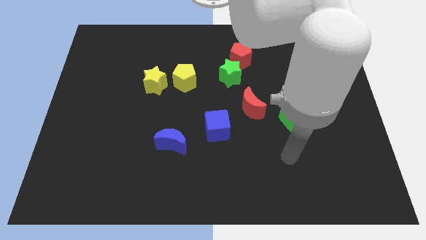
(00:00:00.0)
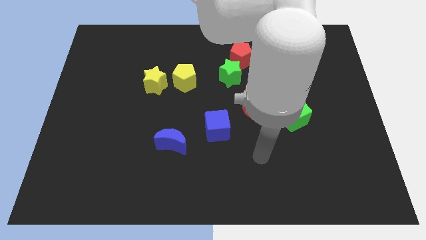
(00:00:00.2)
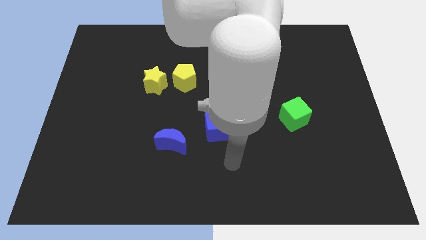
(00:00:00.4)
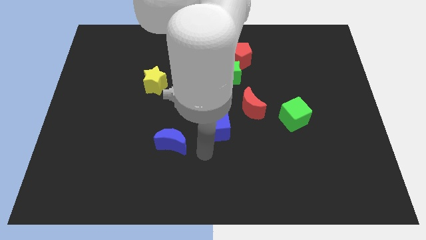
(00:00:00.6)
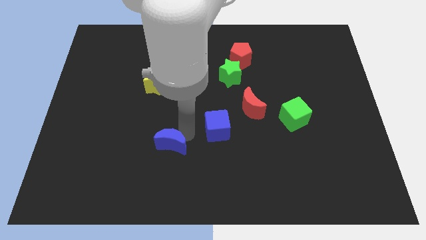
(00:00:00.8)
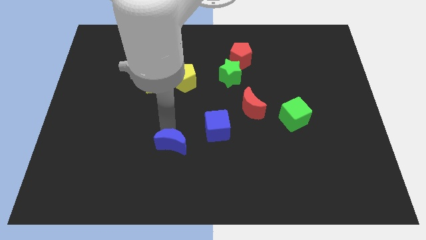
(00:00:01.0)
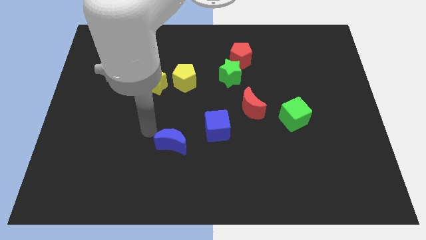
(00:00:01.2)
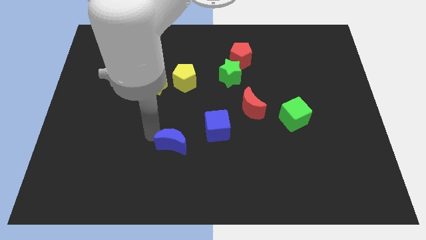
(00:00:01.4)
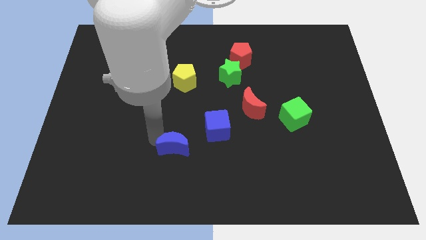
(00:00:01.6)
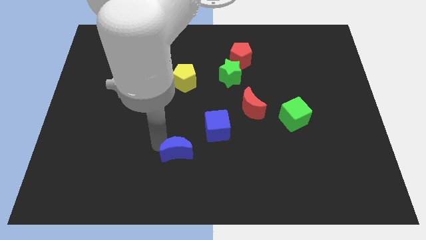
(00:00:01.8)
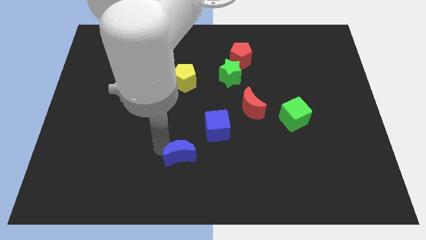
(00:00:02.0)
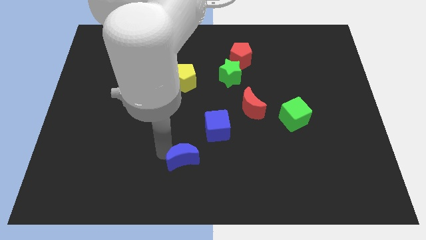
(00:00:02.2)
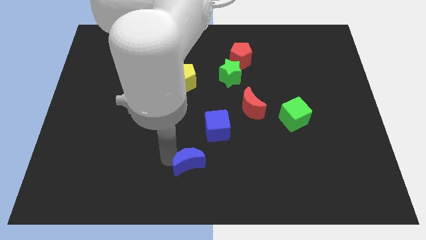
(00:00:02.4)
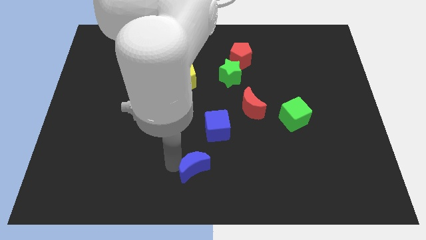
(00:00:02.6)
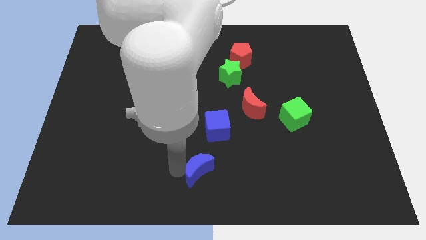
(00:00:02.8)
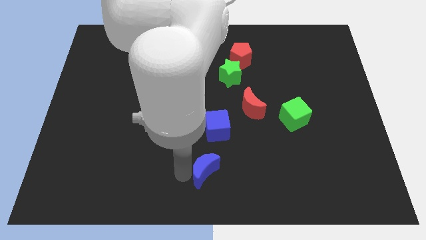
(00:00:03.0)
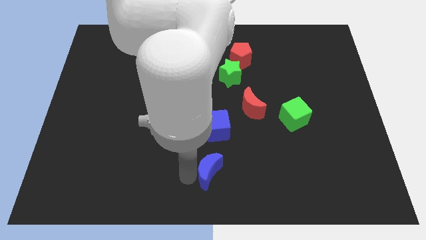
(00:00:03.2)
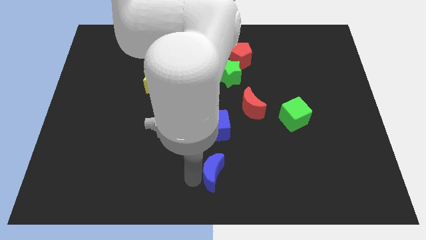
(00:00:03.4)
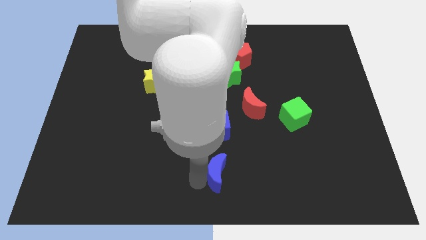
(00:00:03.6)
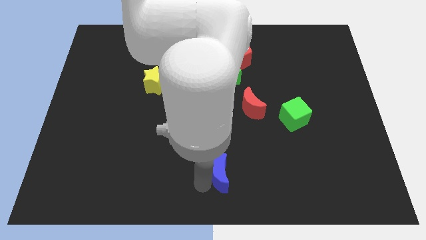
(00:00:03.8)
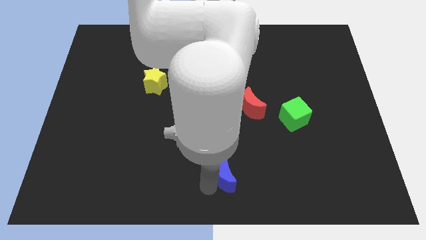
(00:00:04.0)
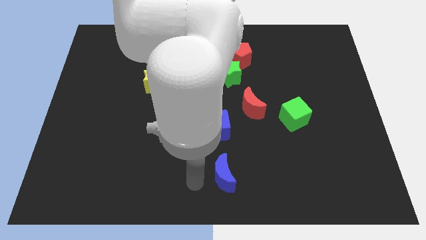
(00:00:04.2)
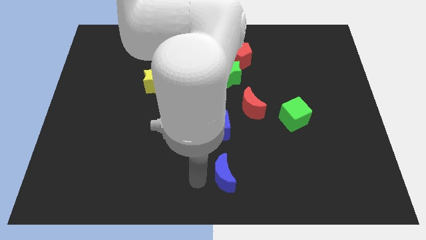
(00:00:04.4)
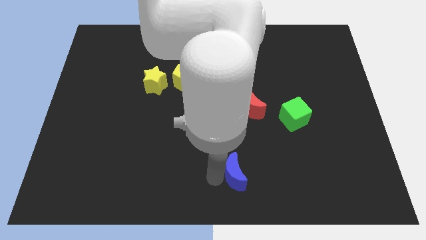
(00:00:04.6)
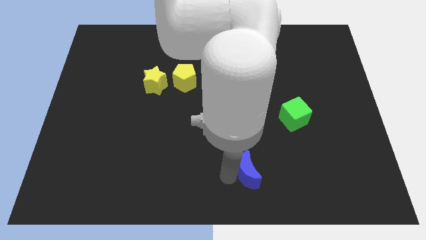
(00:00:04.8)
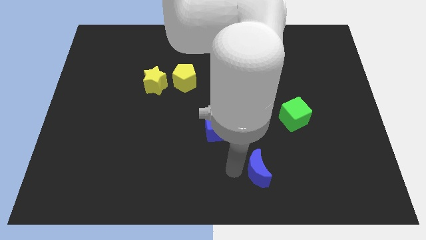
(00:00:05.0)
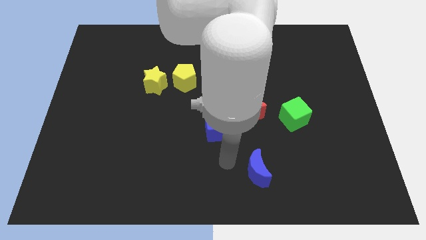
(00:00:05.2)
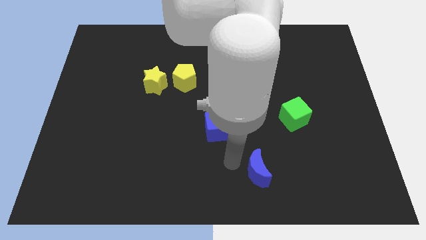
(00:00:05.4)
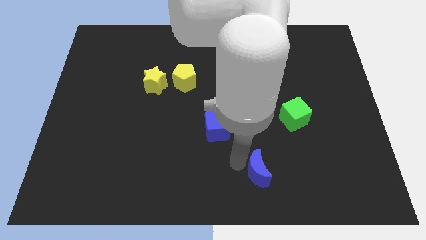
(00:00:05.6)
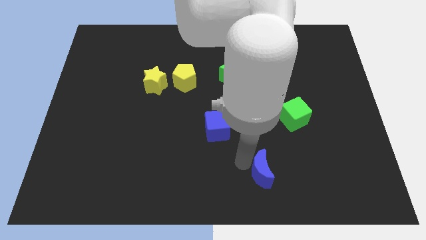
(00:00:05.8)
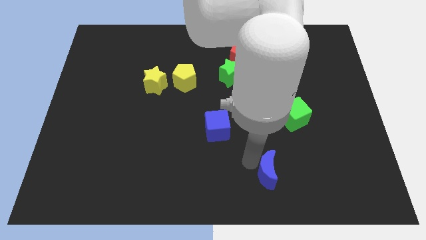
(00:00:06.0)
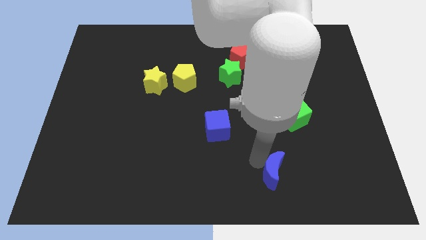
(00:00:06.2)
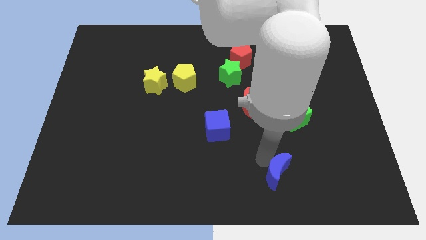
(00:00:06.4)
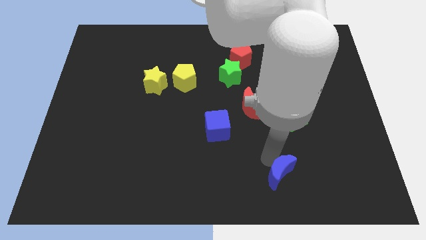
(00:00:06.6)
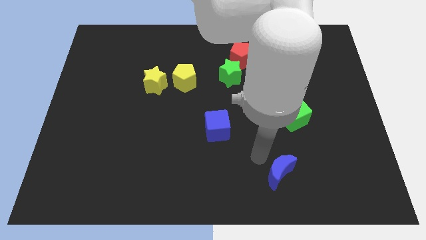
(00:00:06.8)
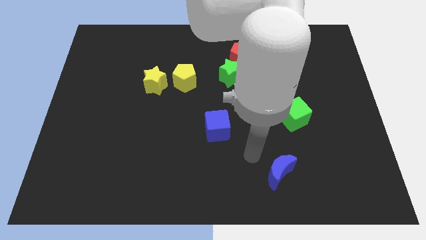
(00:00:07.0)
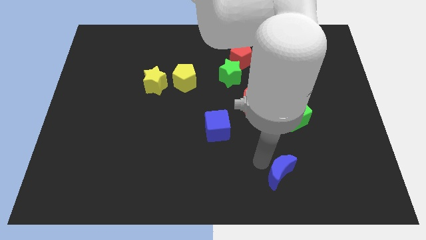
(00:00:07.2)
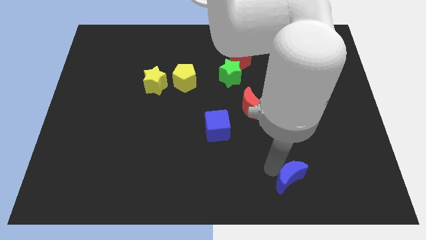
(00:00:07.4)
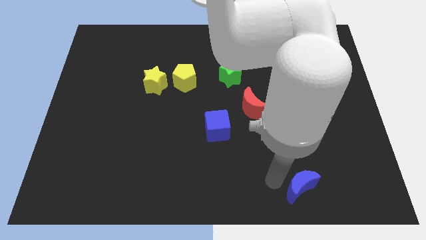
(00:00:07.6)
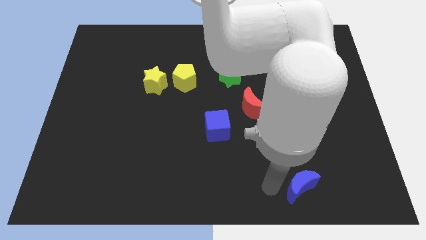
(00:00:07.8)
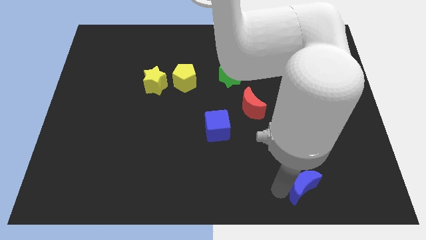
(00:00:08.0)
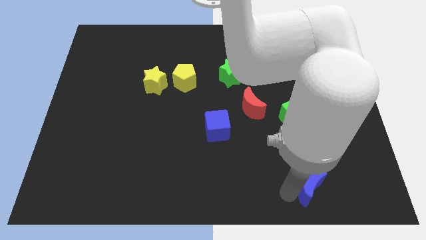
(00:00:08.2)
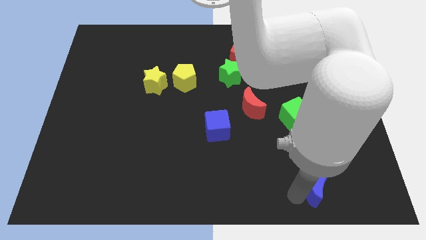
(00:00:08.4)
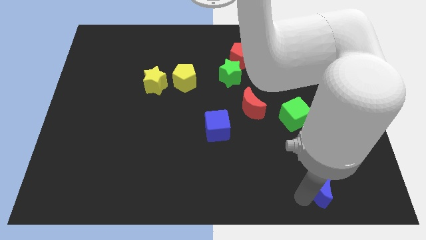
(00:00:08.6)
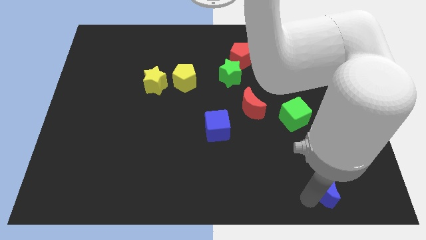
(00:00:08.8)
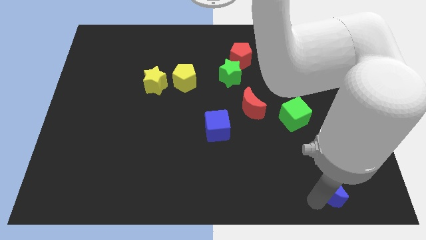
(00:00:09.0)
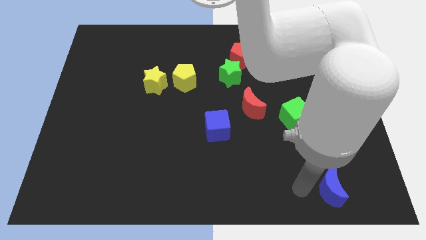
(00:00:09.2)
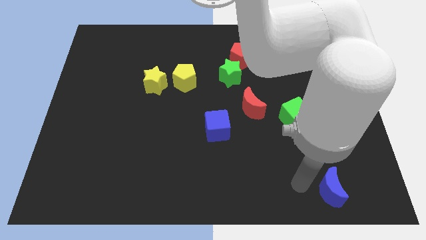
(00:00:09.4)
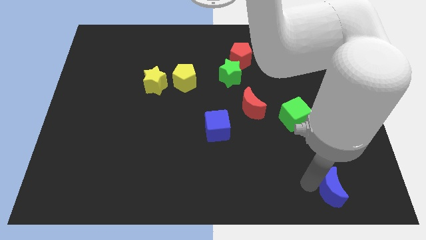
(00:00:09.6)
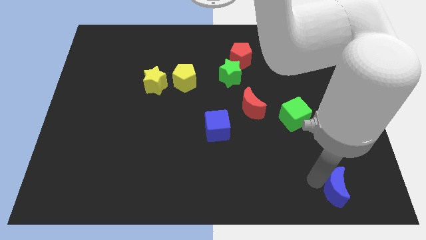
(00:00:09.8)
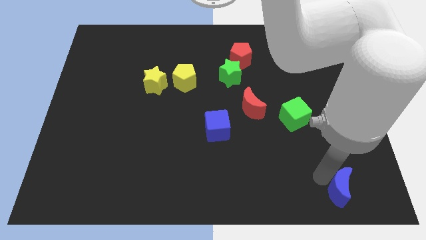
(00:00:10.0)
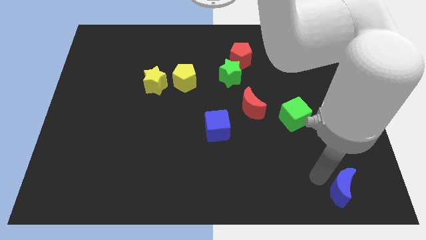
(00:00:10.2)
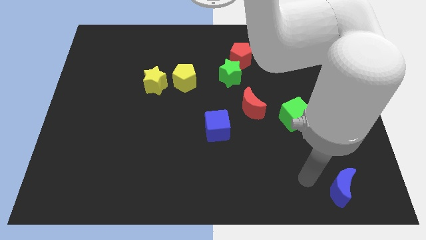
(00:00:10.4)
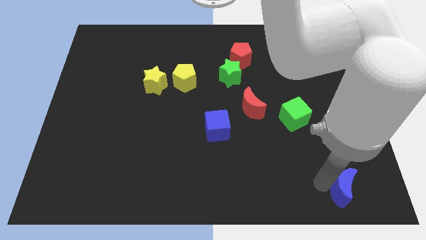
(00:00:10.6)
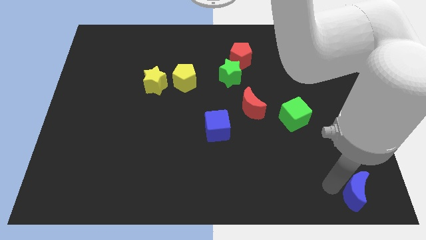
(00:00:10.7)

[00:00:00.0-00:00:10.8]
push the blue moon to the lower right corner

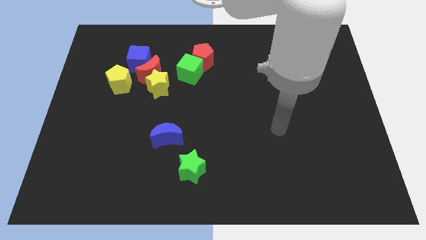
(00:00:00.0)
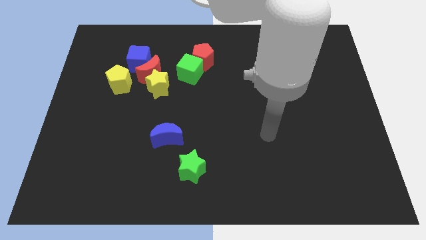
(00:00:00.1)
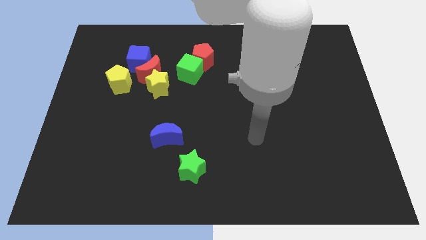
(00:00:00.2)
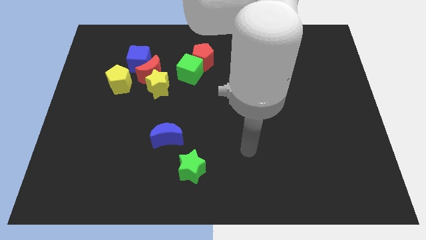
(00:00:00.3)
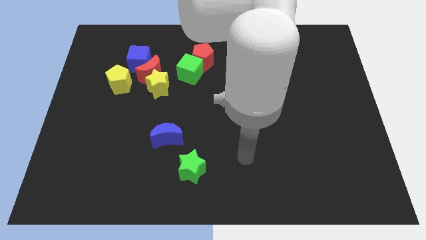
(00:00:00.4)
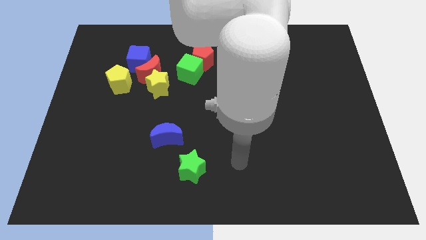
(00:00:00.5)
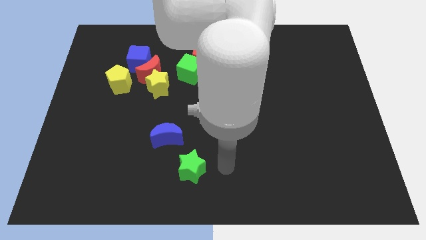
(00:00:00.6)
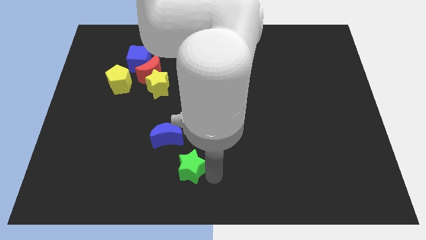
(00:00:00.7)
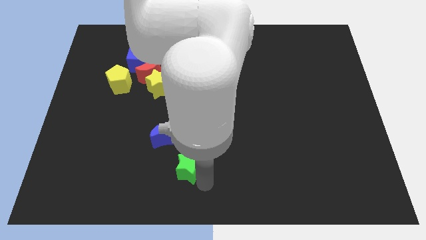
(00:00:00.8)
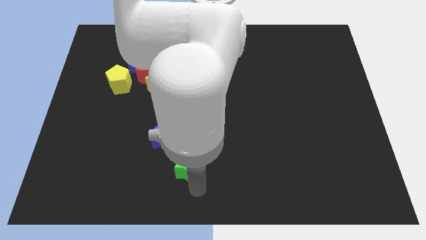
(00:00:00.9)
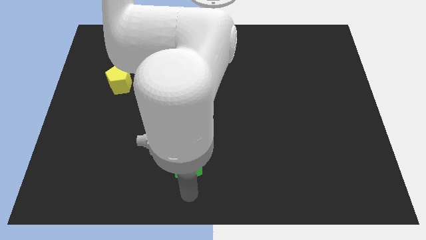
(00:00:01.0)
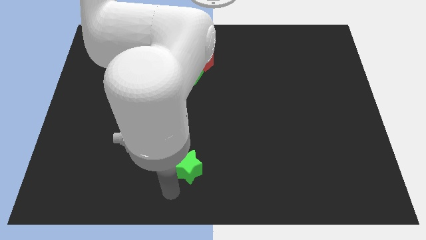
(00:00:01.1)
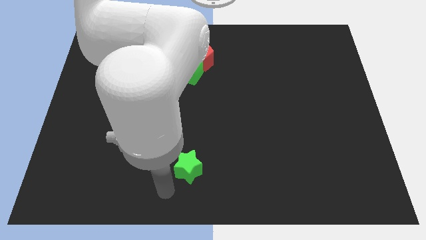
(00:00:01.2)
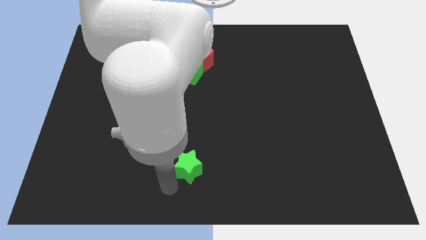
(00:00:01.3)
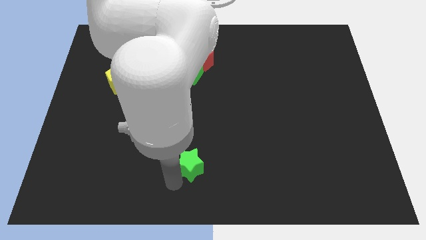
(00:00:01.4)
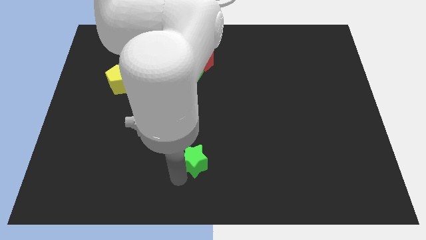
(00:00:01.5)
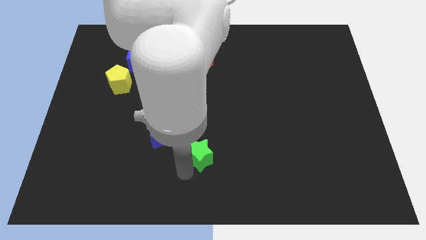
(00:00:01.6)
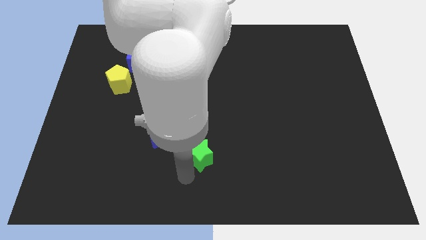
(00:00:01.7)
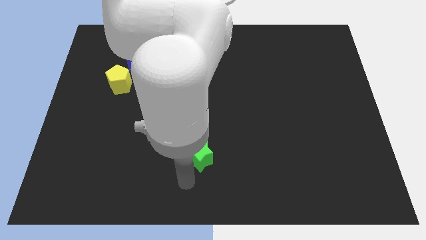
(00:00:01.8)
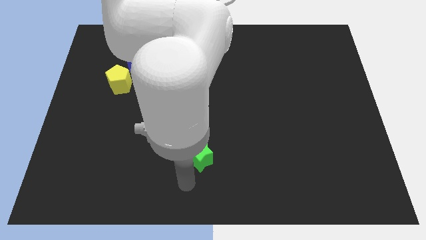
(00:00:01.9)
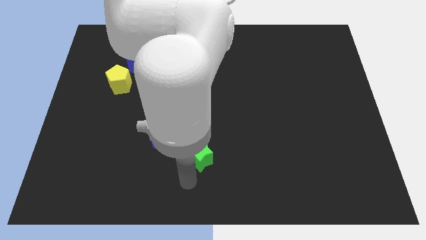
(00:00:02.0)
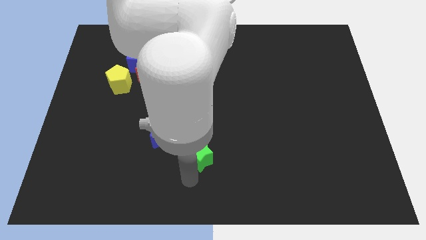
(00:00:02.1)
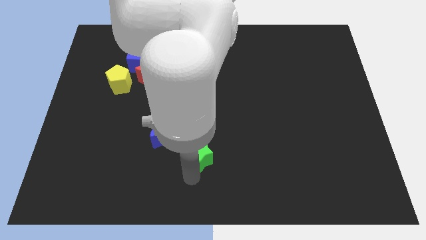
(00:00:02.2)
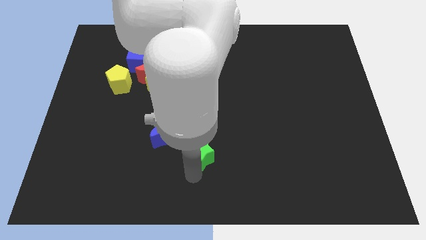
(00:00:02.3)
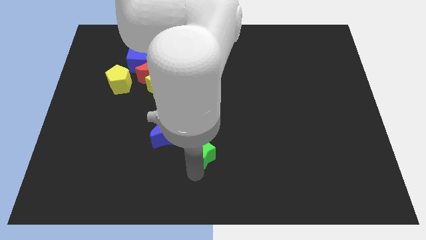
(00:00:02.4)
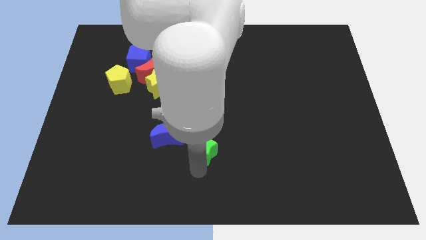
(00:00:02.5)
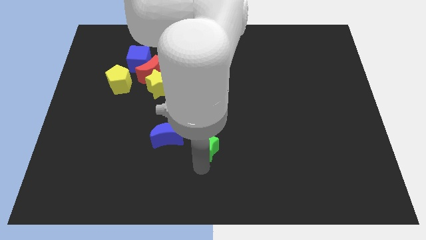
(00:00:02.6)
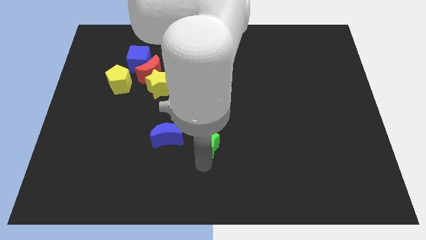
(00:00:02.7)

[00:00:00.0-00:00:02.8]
slide the green star to the middle of the board
